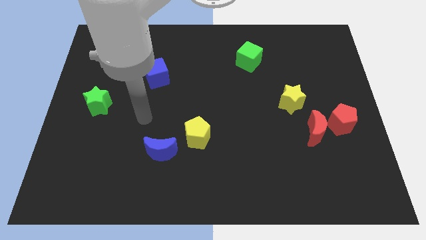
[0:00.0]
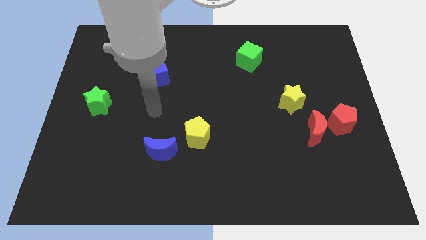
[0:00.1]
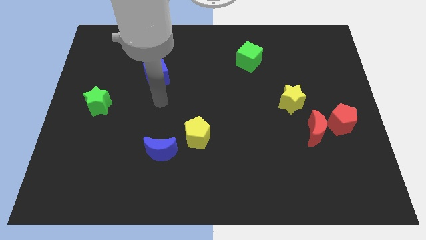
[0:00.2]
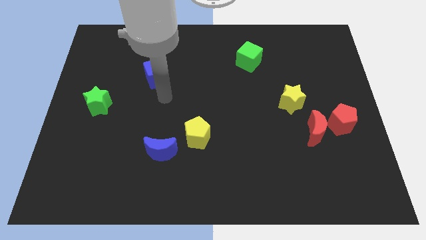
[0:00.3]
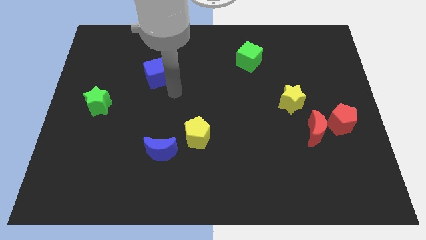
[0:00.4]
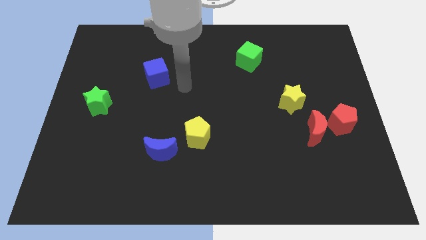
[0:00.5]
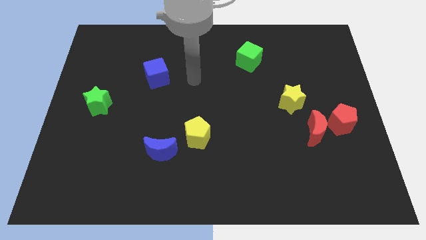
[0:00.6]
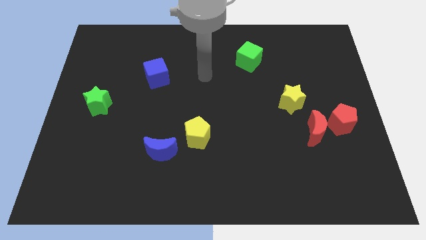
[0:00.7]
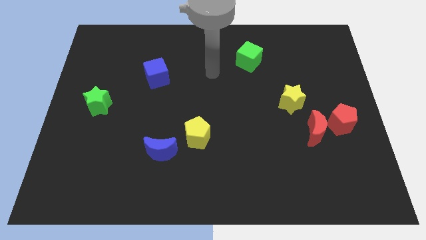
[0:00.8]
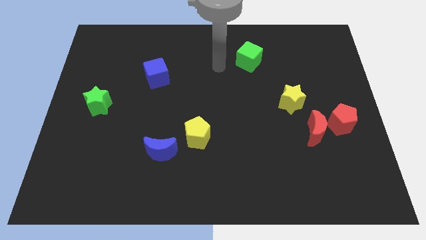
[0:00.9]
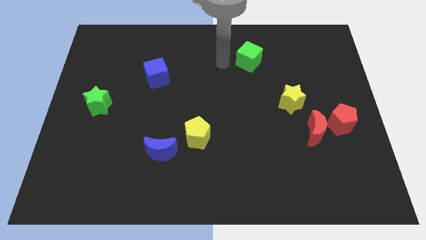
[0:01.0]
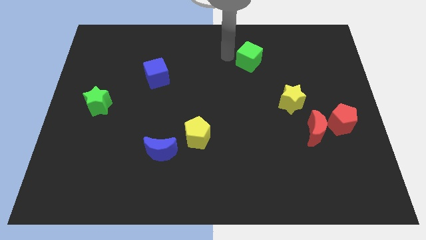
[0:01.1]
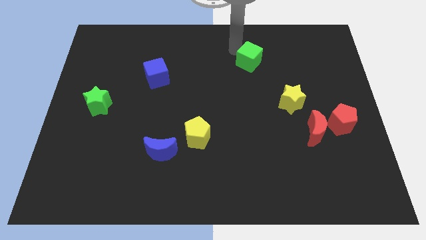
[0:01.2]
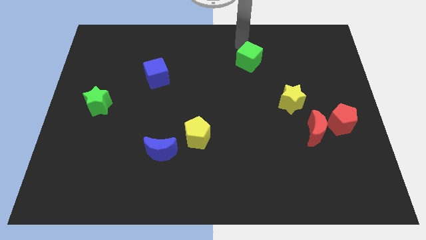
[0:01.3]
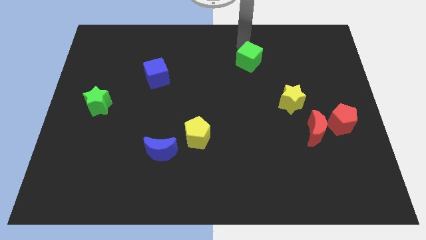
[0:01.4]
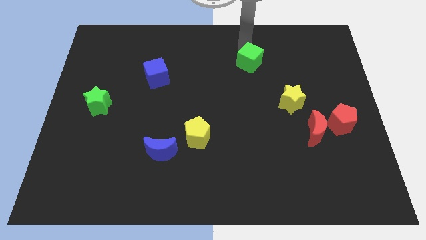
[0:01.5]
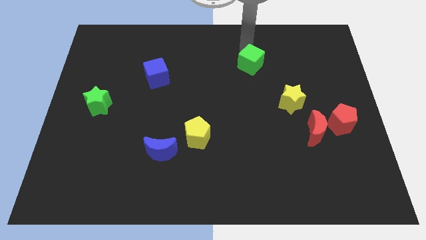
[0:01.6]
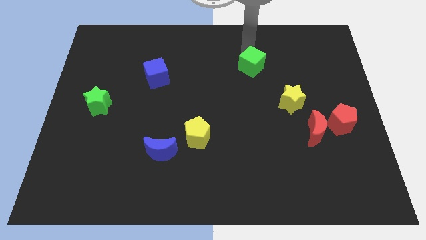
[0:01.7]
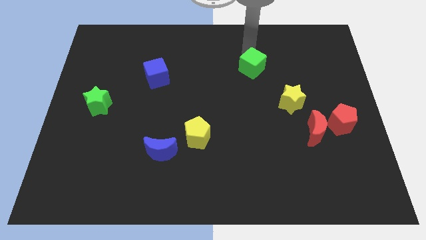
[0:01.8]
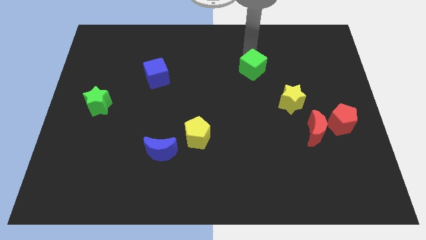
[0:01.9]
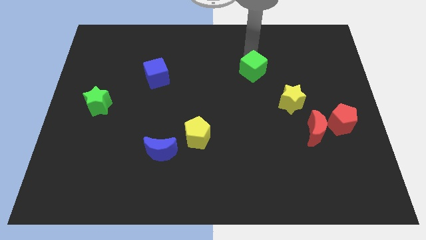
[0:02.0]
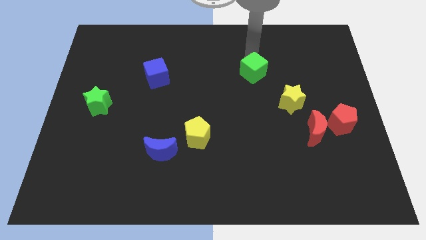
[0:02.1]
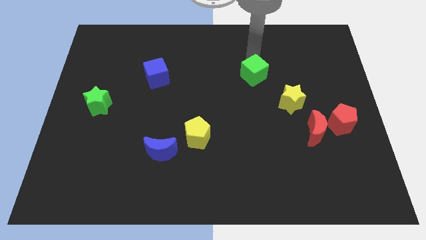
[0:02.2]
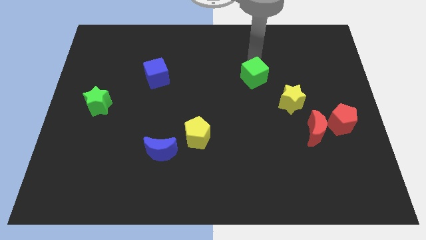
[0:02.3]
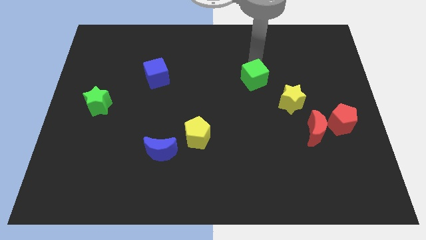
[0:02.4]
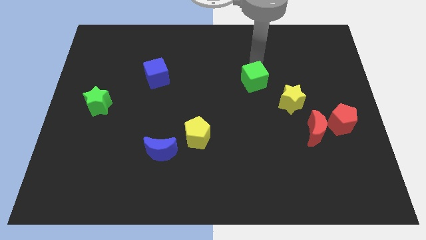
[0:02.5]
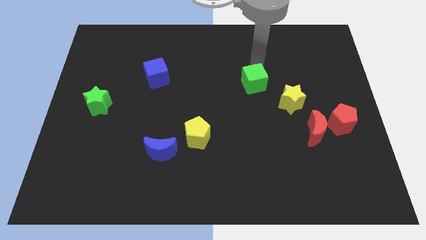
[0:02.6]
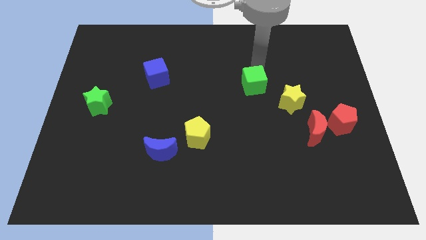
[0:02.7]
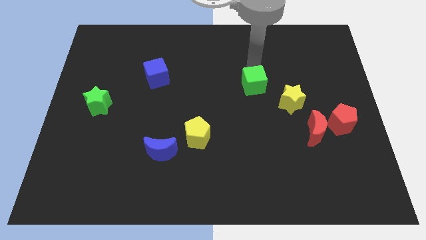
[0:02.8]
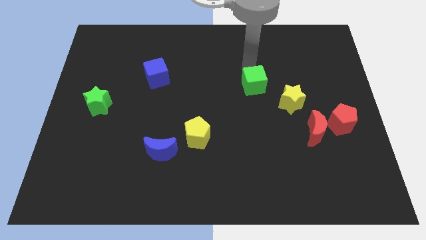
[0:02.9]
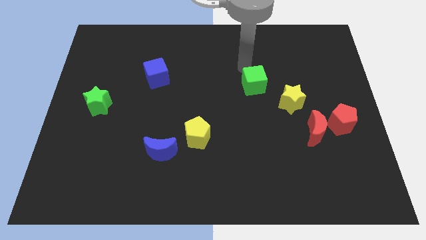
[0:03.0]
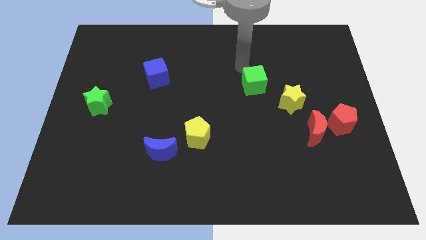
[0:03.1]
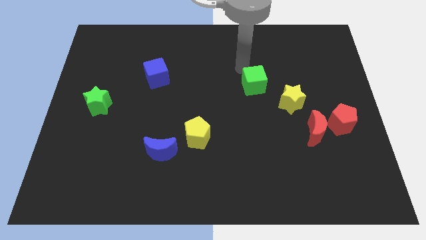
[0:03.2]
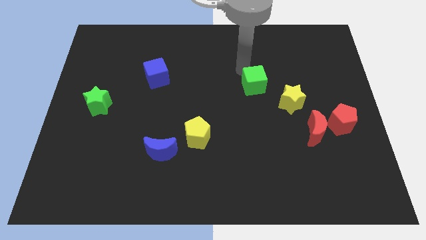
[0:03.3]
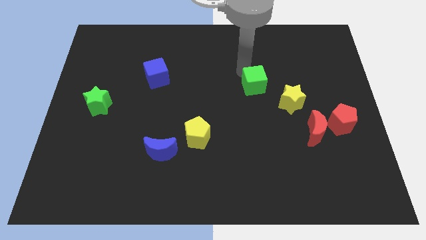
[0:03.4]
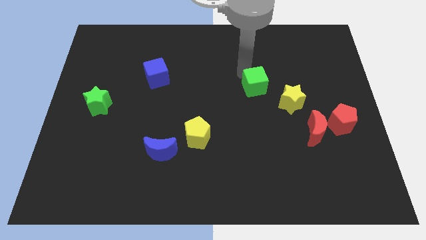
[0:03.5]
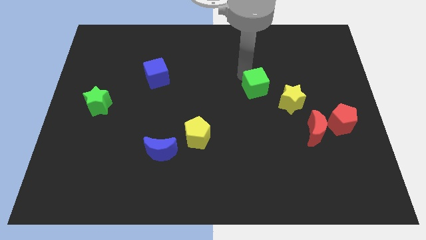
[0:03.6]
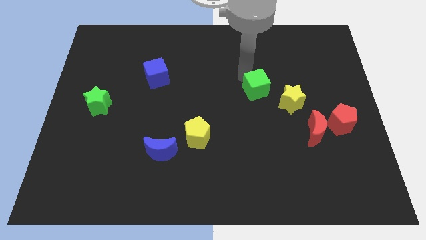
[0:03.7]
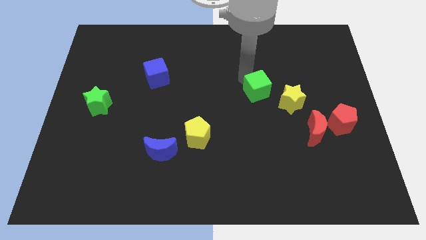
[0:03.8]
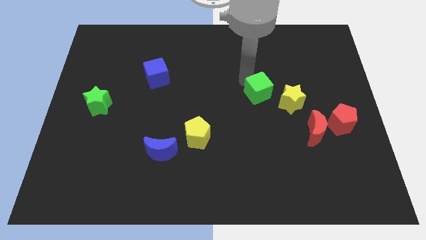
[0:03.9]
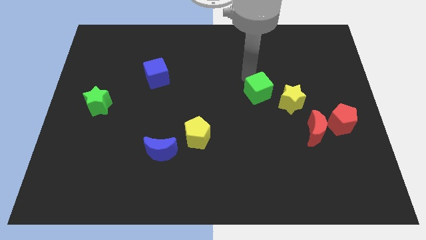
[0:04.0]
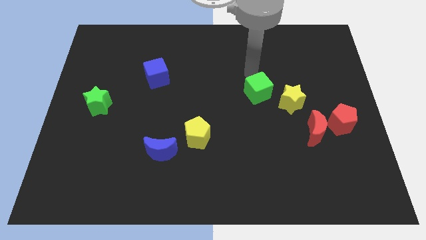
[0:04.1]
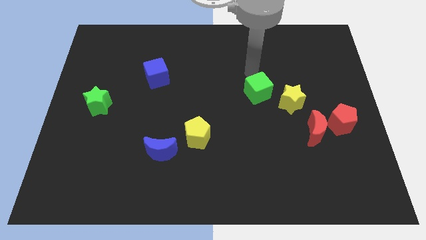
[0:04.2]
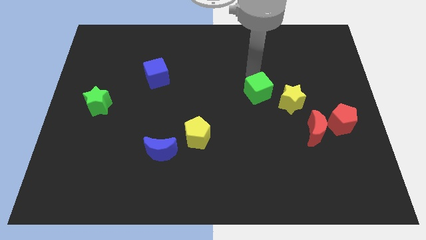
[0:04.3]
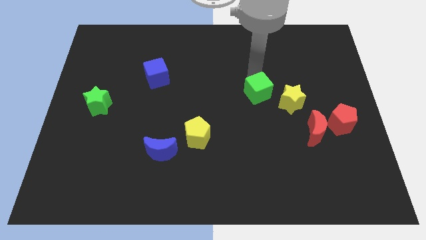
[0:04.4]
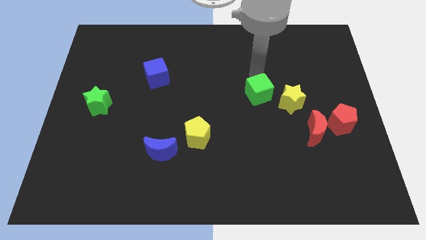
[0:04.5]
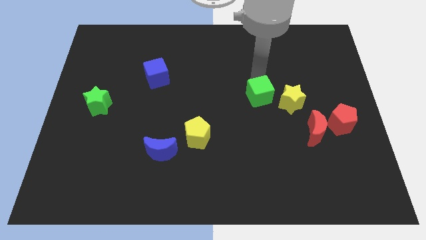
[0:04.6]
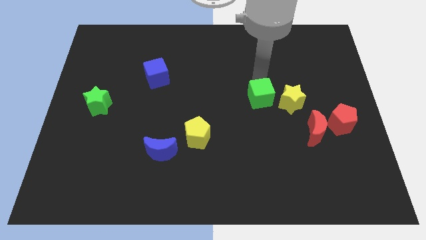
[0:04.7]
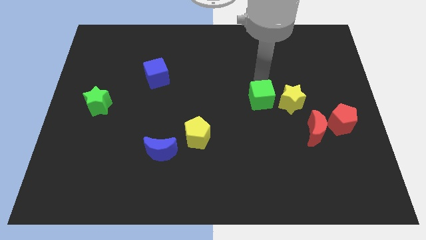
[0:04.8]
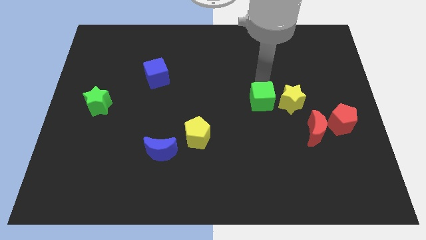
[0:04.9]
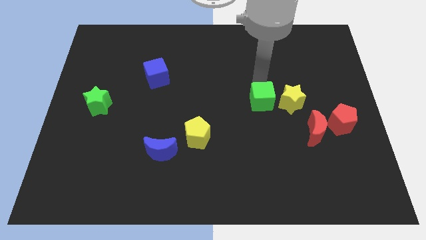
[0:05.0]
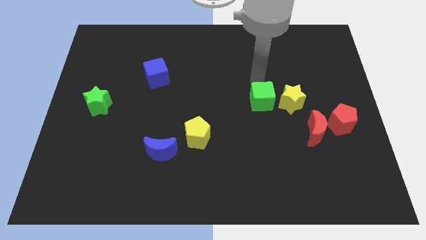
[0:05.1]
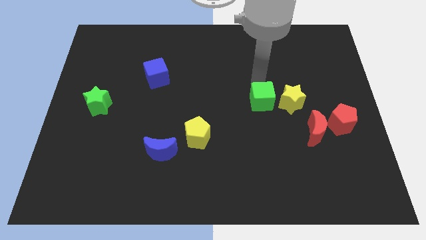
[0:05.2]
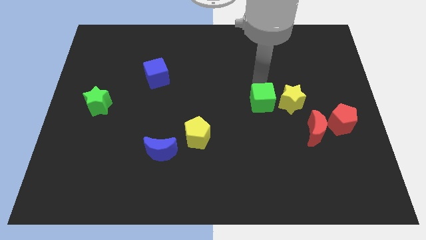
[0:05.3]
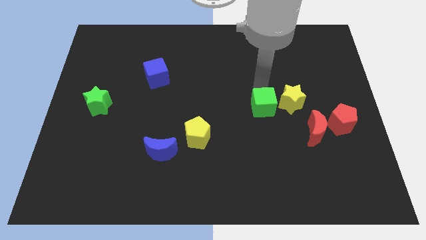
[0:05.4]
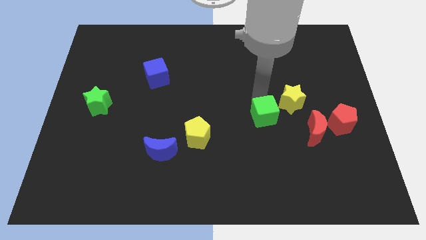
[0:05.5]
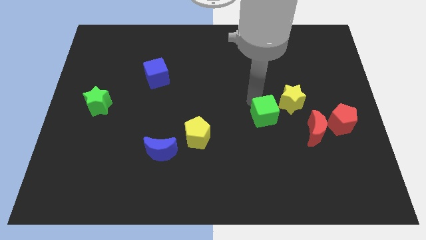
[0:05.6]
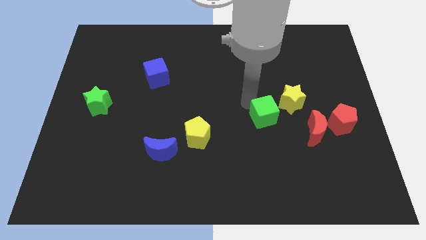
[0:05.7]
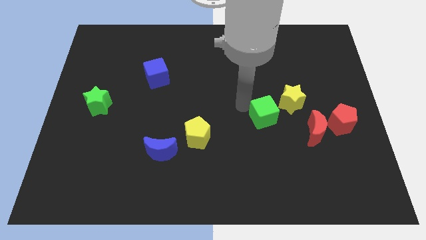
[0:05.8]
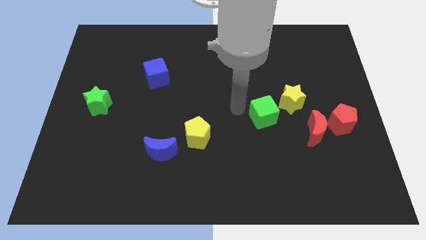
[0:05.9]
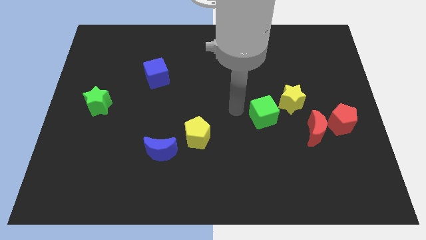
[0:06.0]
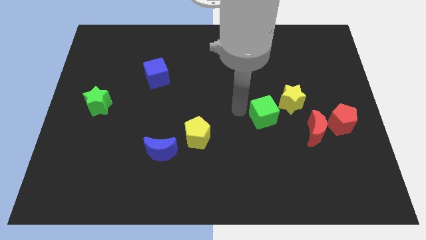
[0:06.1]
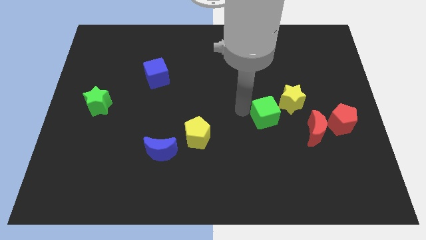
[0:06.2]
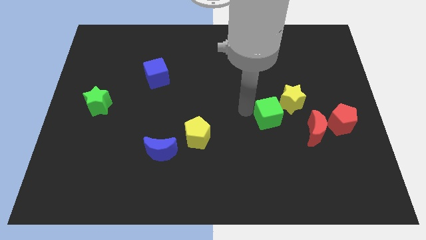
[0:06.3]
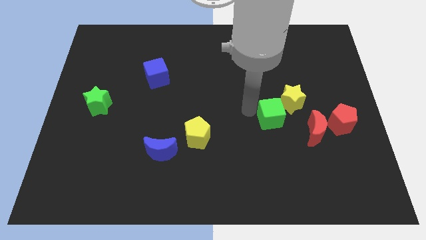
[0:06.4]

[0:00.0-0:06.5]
push the green cube just left of the red pentagon

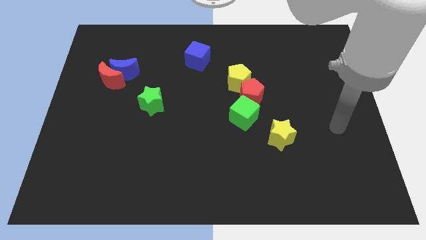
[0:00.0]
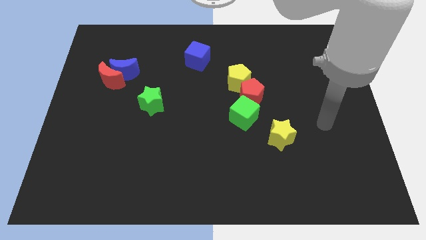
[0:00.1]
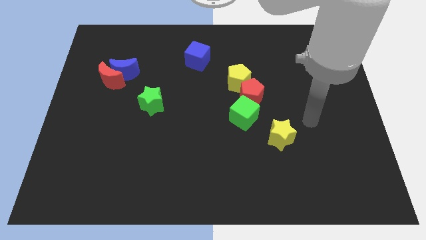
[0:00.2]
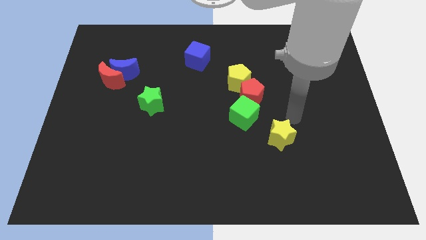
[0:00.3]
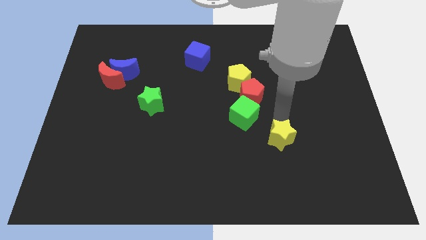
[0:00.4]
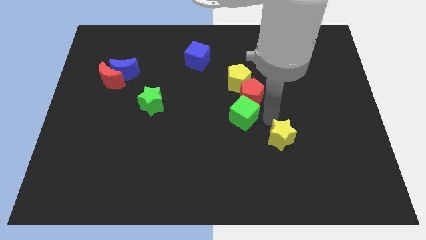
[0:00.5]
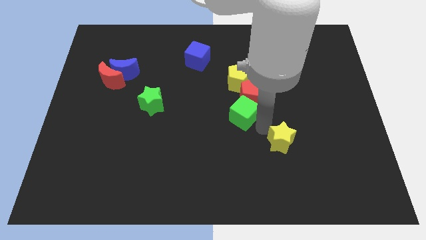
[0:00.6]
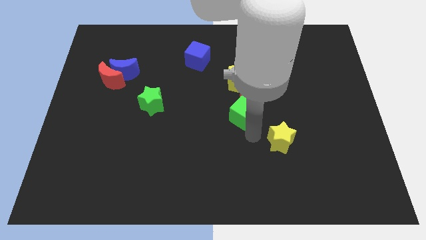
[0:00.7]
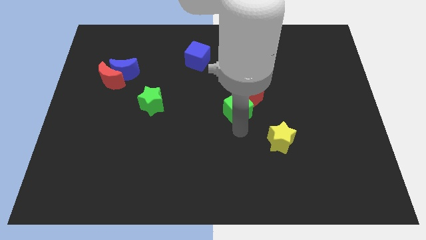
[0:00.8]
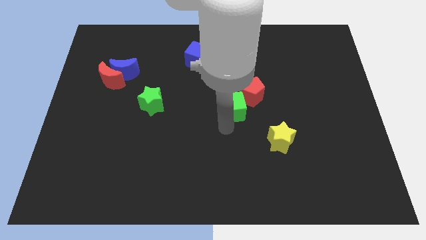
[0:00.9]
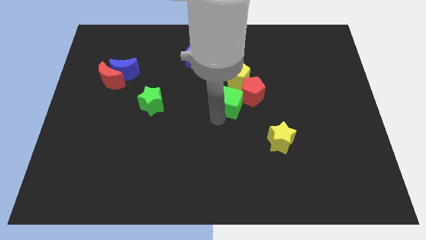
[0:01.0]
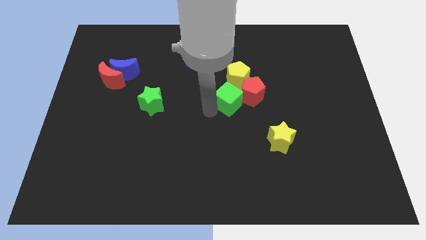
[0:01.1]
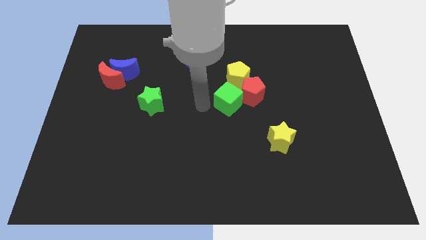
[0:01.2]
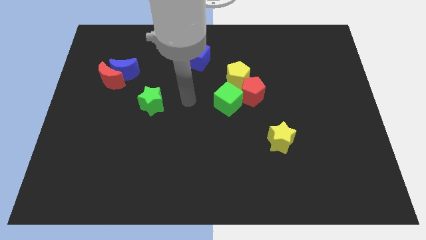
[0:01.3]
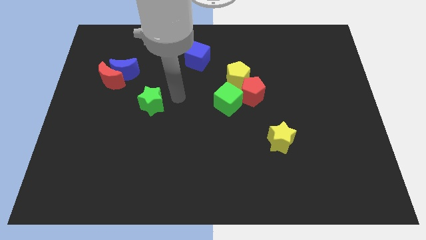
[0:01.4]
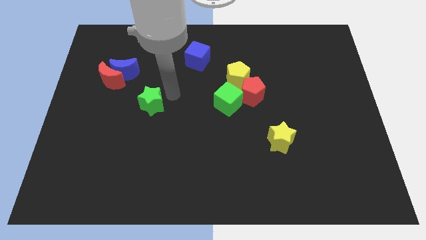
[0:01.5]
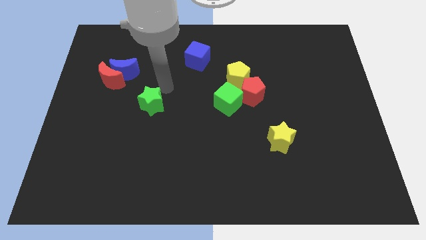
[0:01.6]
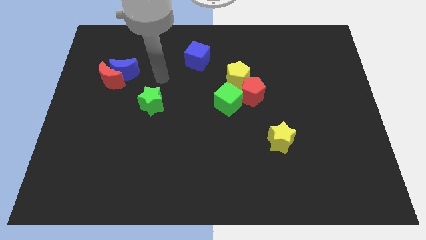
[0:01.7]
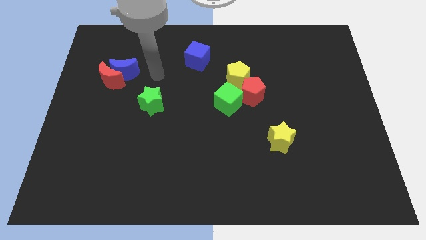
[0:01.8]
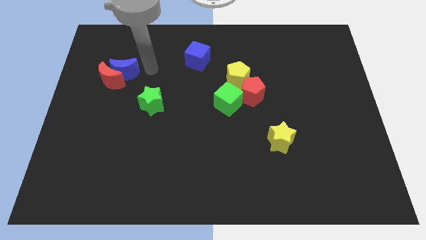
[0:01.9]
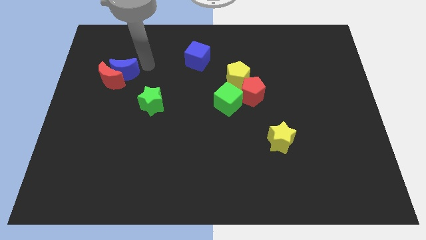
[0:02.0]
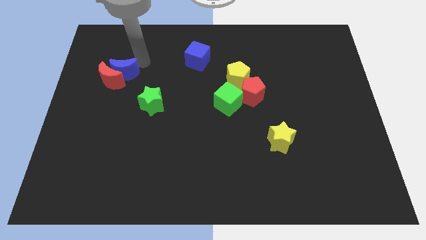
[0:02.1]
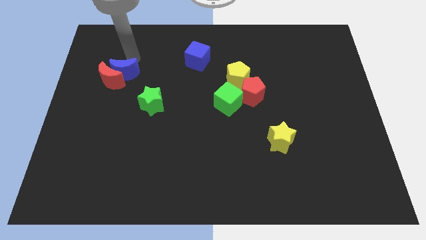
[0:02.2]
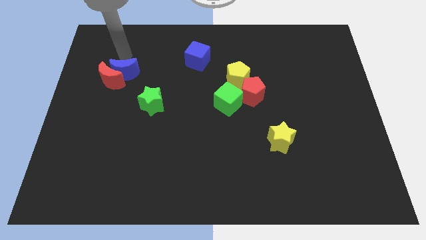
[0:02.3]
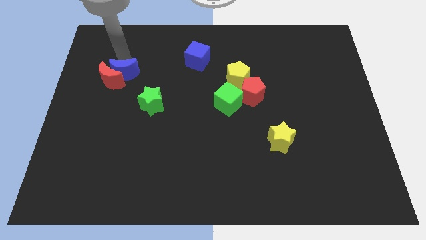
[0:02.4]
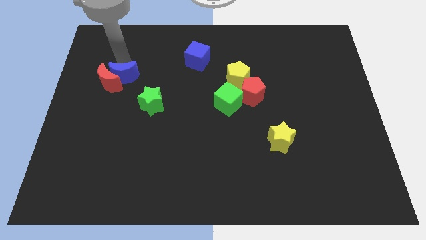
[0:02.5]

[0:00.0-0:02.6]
push the blue moon to the bottom right side of the red moon
